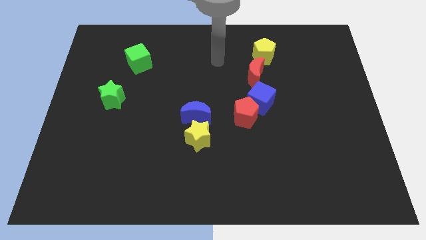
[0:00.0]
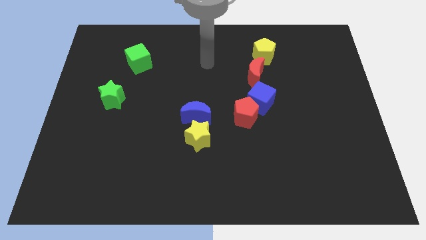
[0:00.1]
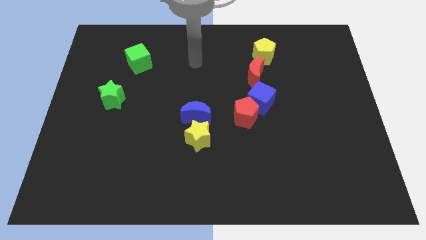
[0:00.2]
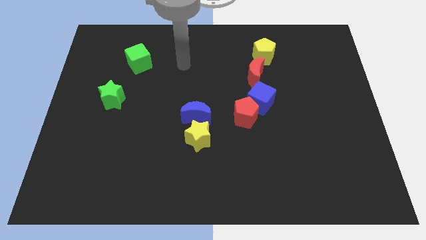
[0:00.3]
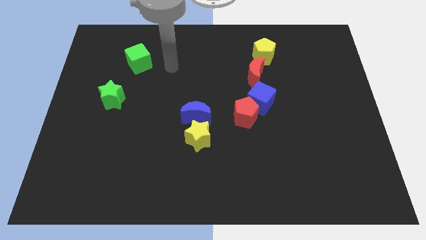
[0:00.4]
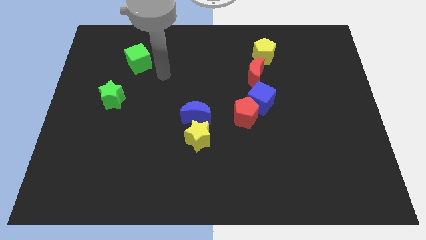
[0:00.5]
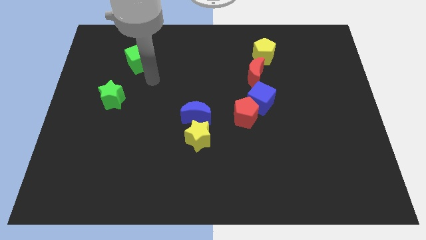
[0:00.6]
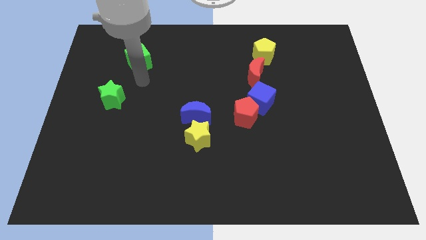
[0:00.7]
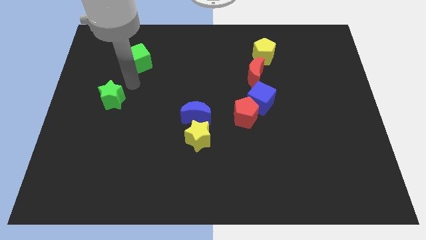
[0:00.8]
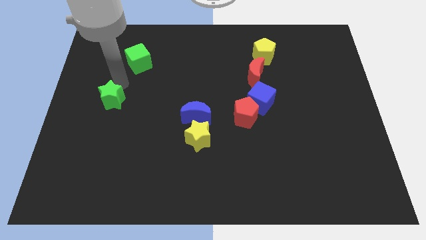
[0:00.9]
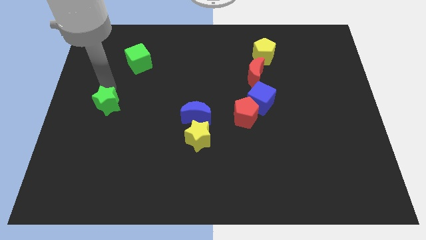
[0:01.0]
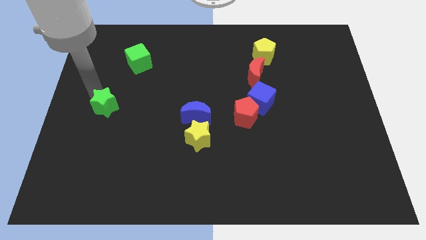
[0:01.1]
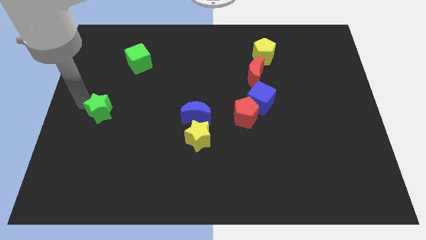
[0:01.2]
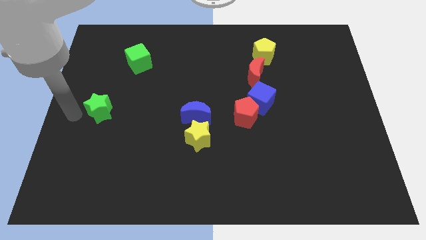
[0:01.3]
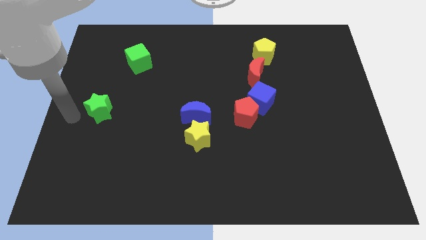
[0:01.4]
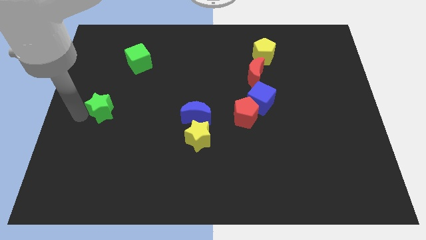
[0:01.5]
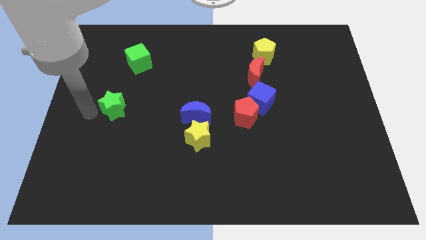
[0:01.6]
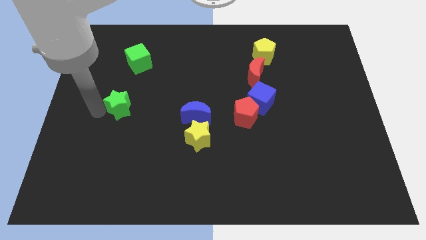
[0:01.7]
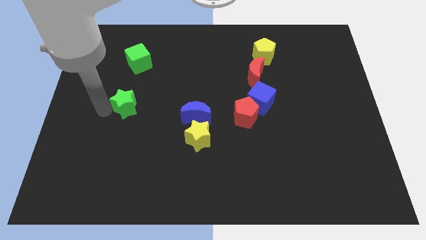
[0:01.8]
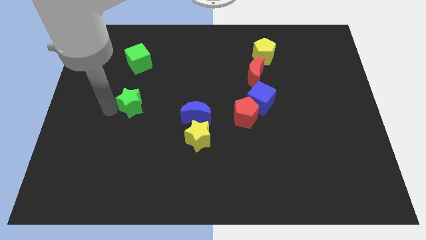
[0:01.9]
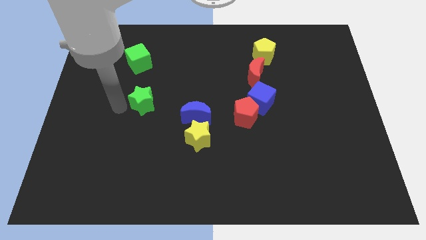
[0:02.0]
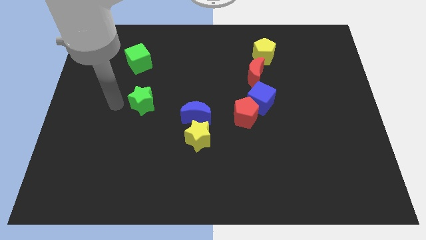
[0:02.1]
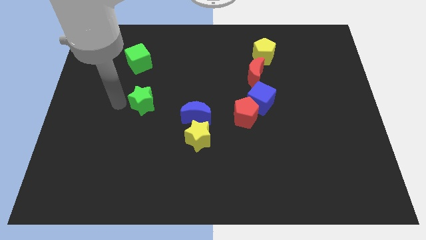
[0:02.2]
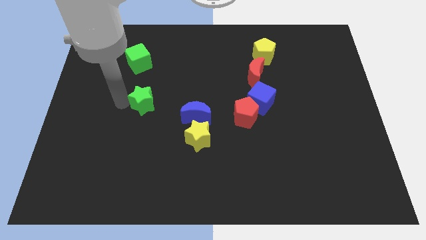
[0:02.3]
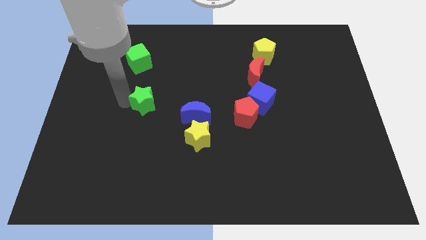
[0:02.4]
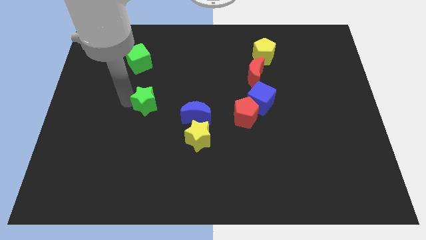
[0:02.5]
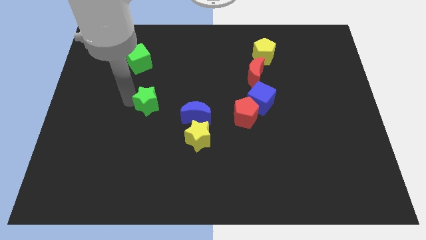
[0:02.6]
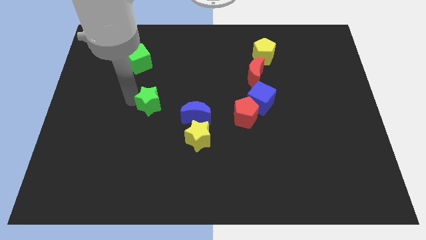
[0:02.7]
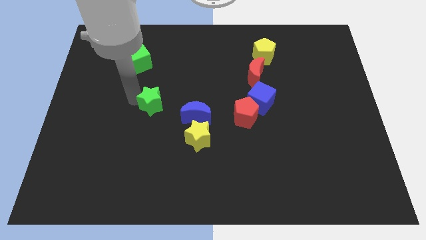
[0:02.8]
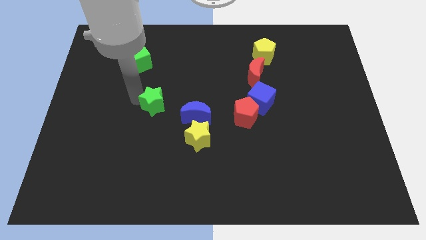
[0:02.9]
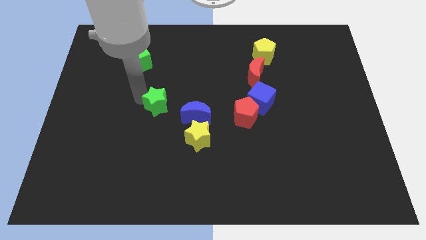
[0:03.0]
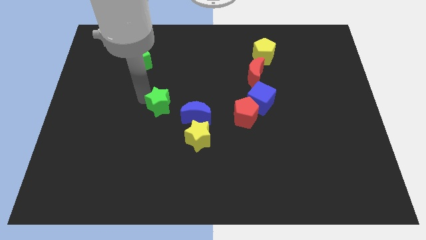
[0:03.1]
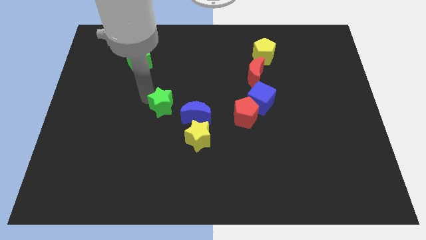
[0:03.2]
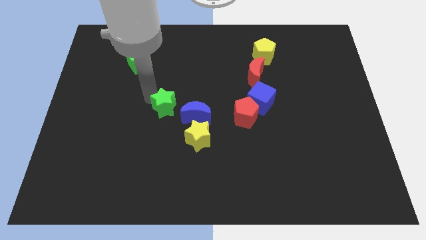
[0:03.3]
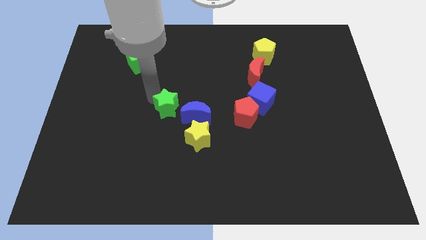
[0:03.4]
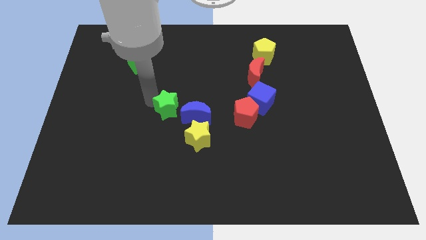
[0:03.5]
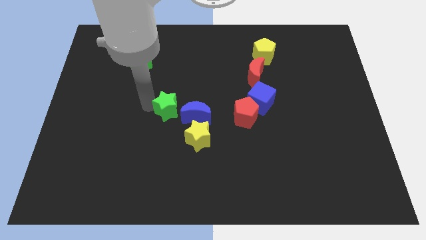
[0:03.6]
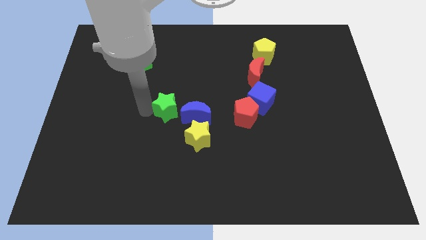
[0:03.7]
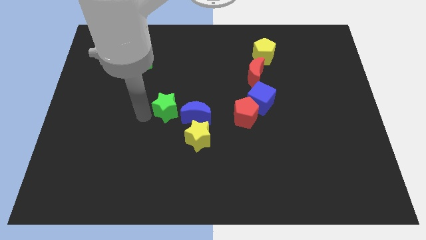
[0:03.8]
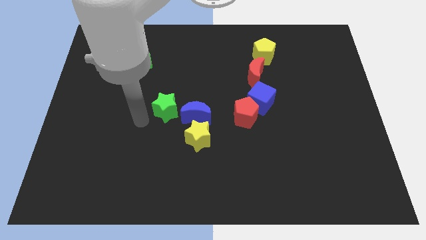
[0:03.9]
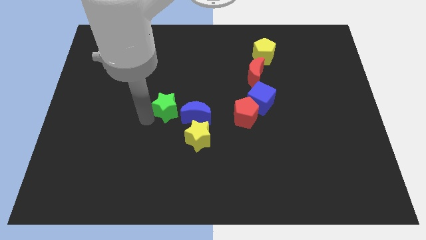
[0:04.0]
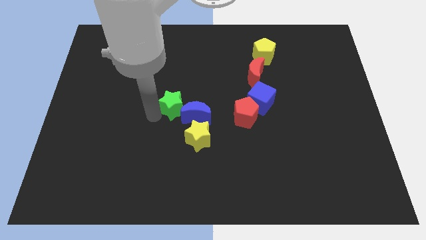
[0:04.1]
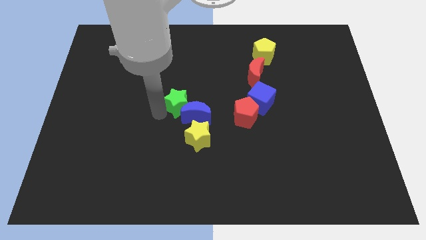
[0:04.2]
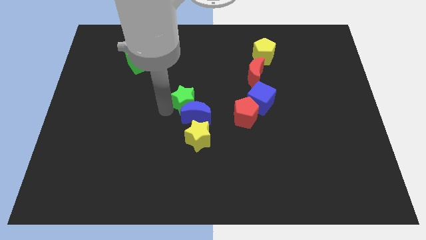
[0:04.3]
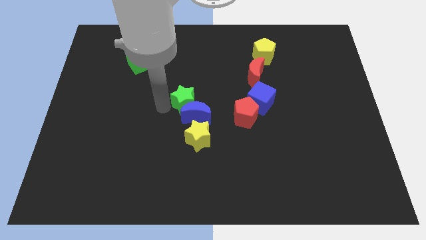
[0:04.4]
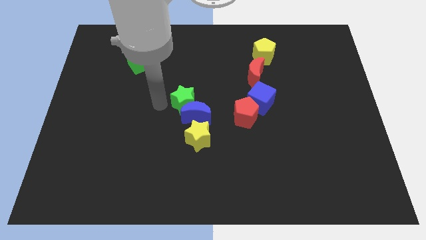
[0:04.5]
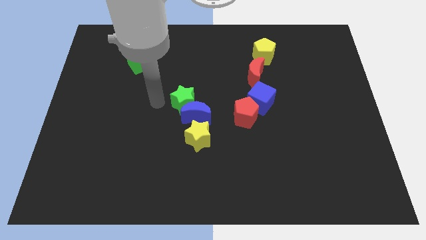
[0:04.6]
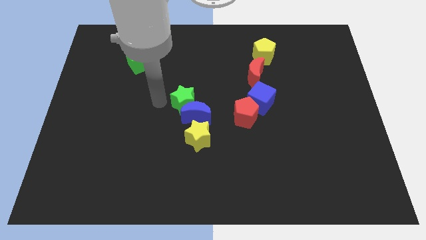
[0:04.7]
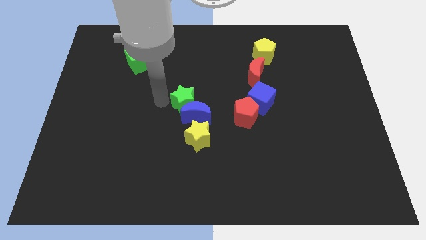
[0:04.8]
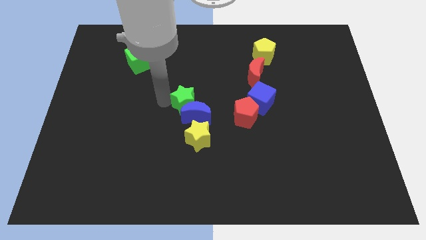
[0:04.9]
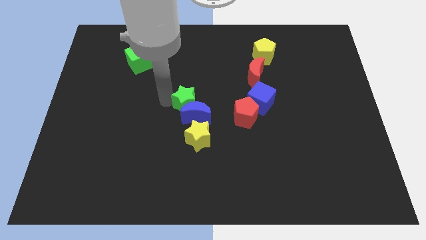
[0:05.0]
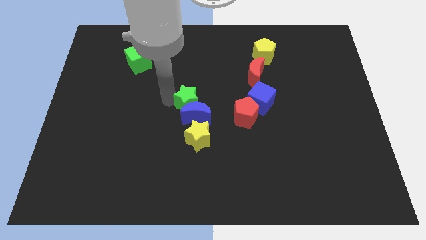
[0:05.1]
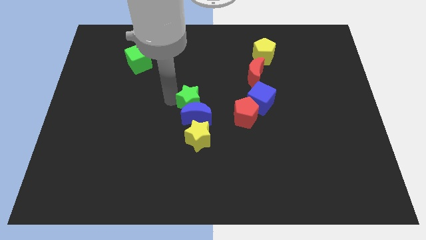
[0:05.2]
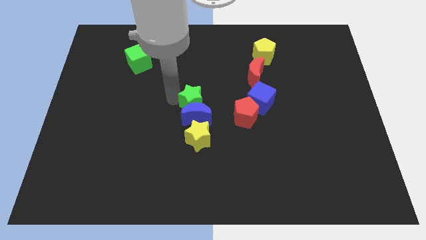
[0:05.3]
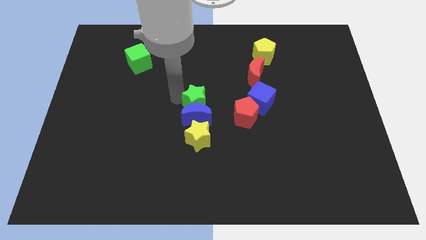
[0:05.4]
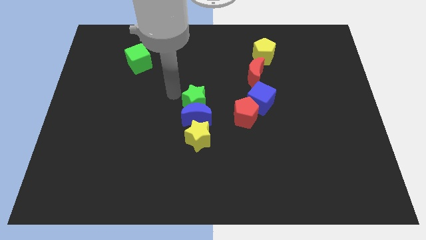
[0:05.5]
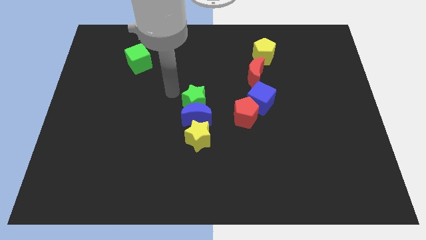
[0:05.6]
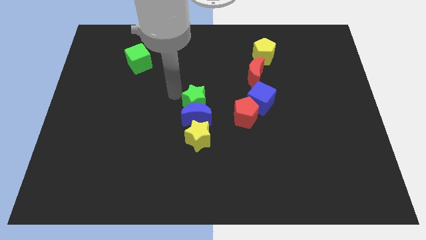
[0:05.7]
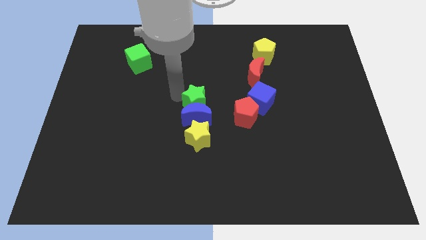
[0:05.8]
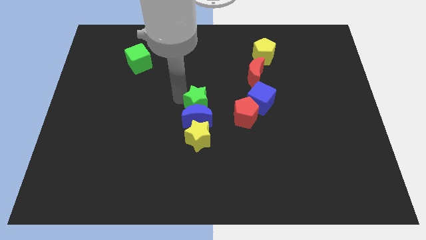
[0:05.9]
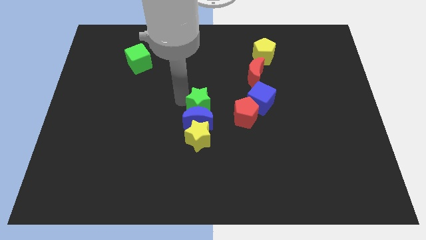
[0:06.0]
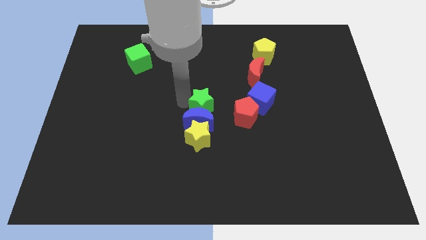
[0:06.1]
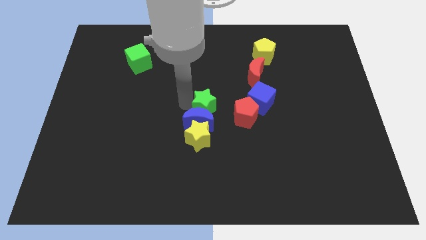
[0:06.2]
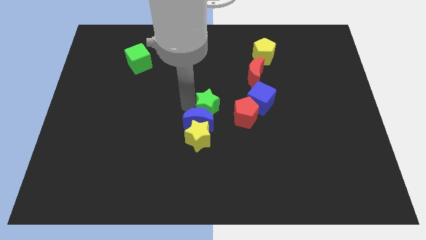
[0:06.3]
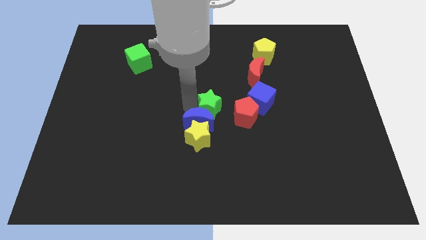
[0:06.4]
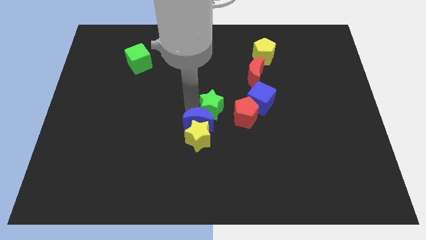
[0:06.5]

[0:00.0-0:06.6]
push the green star to the right side of the blue moon
